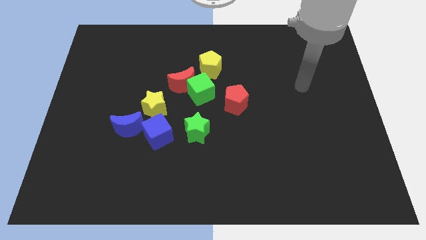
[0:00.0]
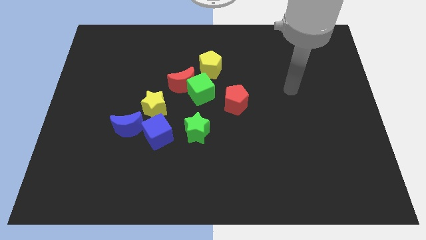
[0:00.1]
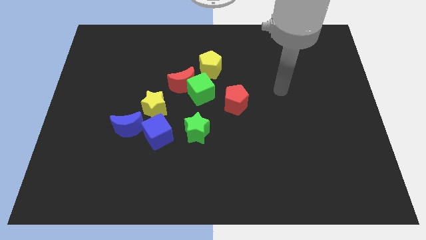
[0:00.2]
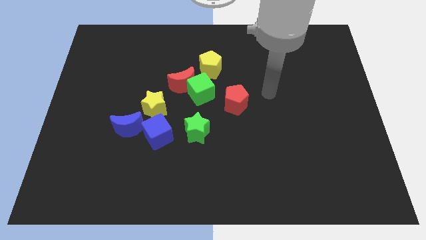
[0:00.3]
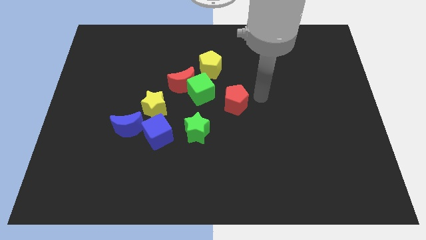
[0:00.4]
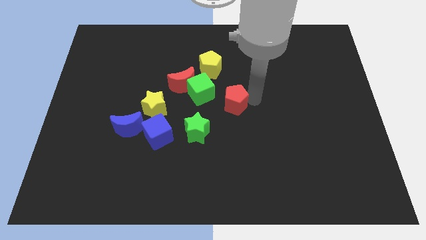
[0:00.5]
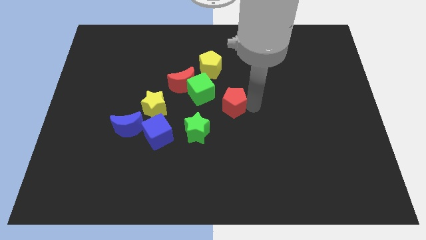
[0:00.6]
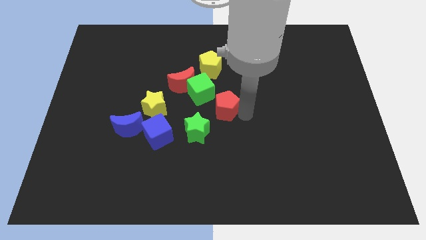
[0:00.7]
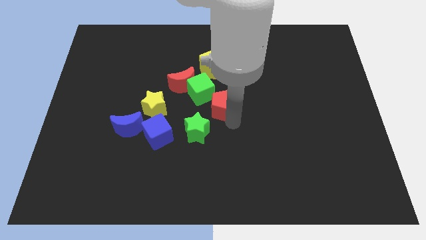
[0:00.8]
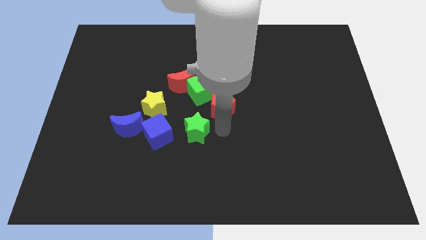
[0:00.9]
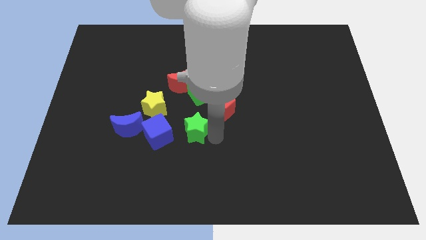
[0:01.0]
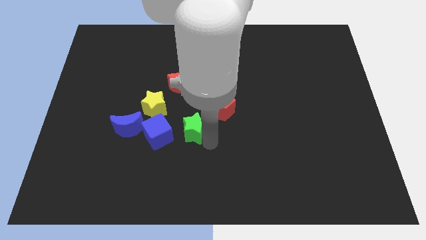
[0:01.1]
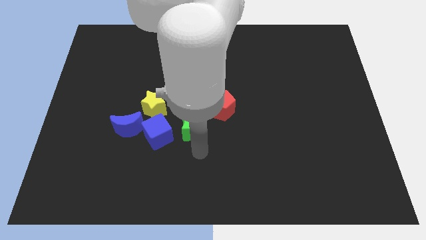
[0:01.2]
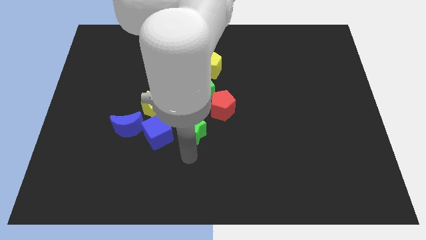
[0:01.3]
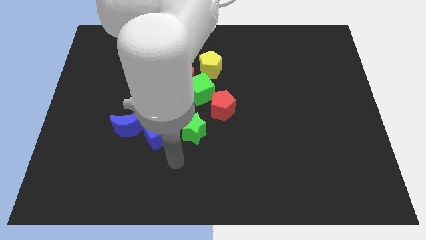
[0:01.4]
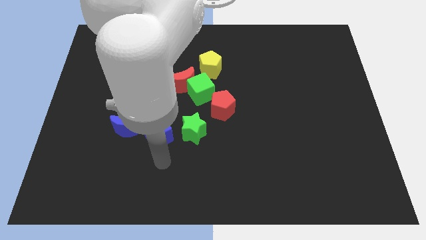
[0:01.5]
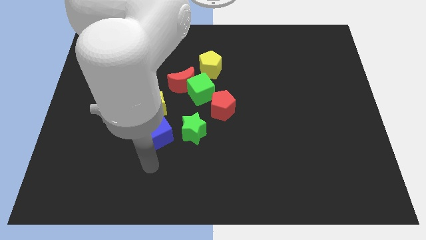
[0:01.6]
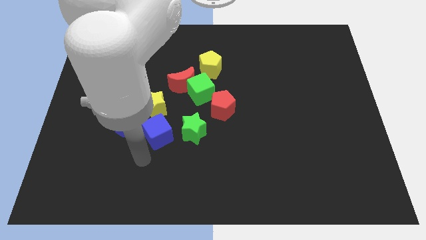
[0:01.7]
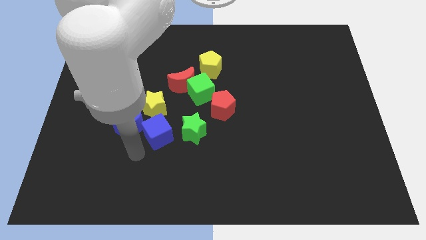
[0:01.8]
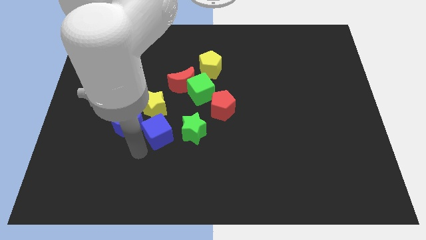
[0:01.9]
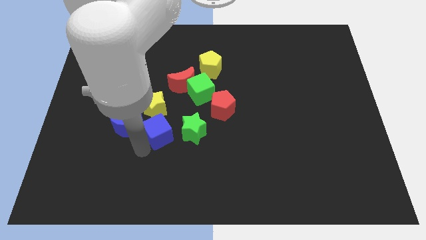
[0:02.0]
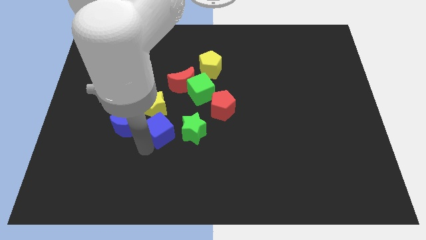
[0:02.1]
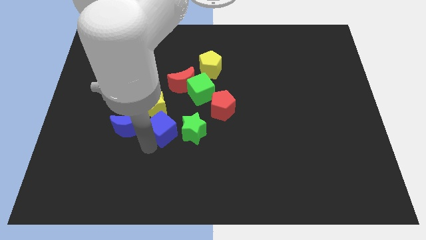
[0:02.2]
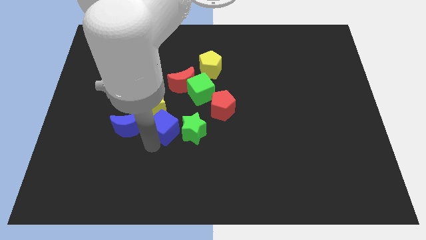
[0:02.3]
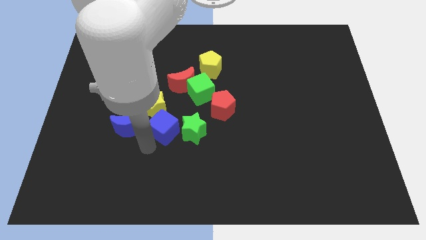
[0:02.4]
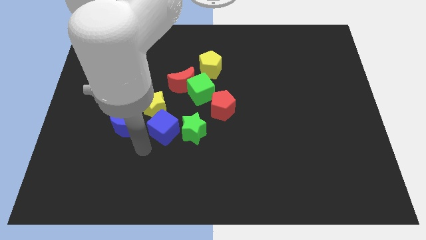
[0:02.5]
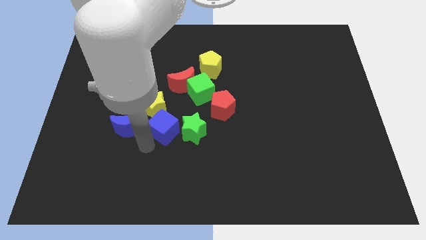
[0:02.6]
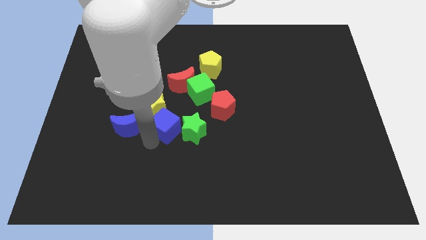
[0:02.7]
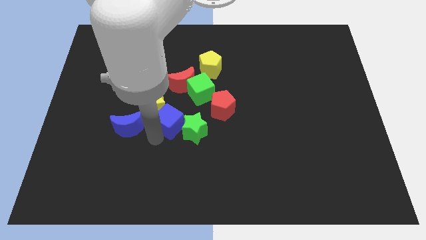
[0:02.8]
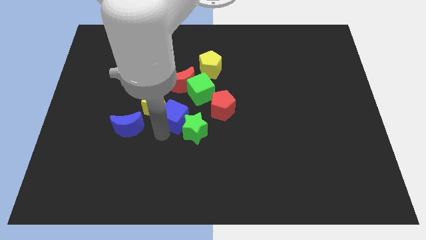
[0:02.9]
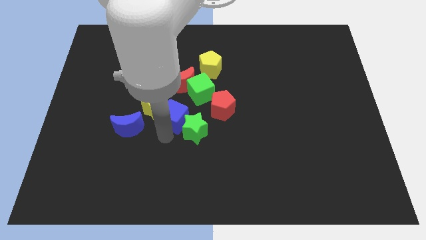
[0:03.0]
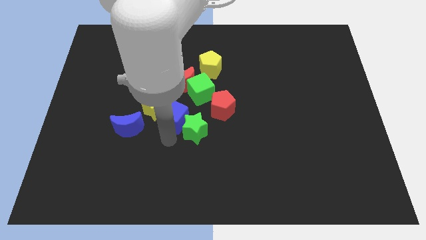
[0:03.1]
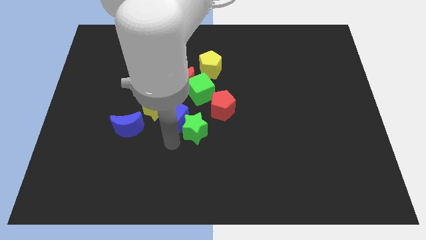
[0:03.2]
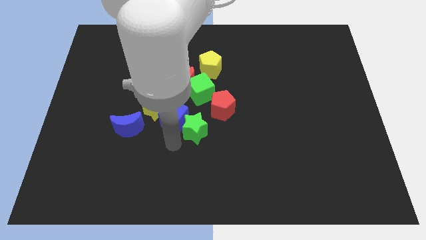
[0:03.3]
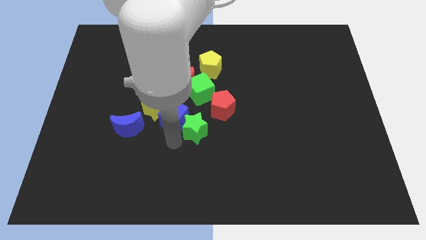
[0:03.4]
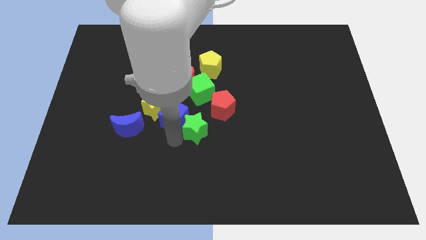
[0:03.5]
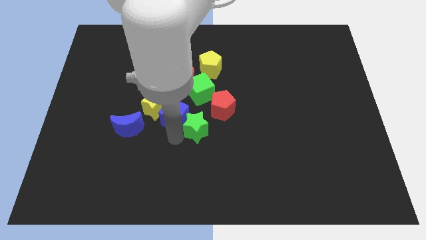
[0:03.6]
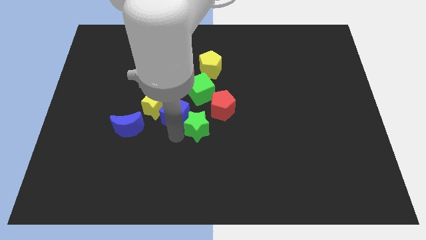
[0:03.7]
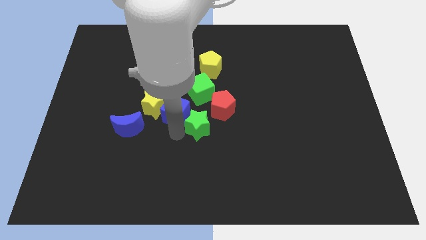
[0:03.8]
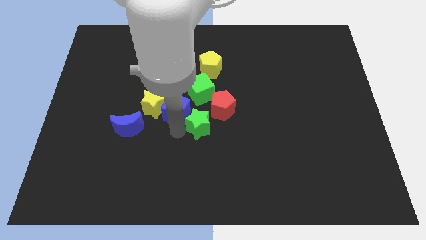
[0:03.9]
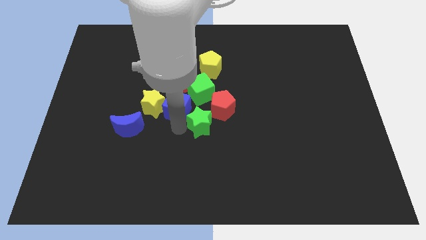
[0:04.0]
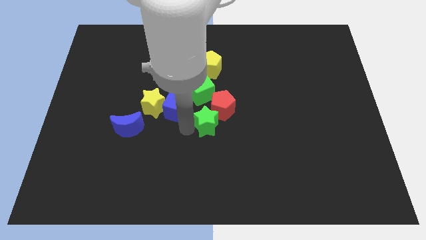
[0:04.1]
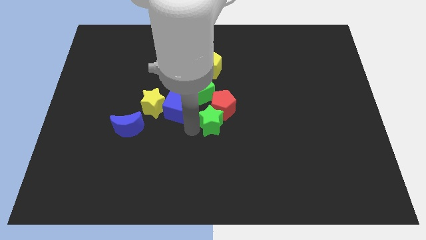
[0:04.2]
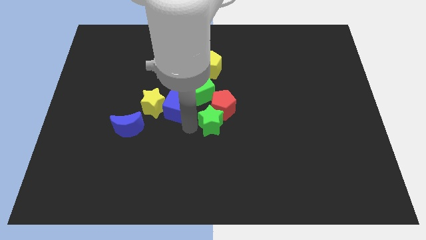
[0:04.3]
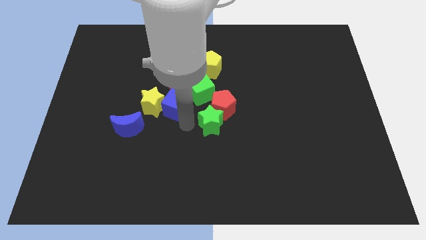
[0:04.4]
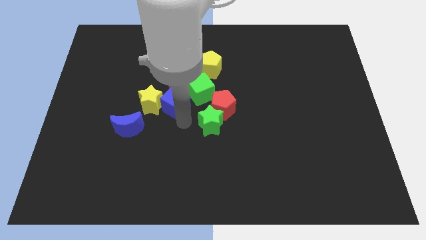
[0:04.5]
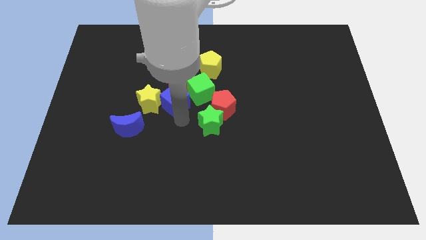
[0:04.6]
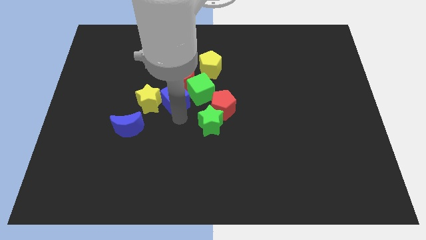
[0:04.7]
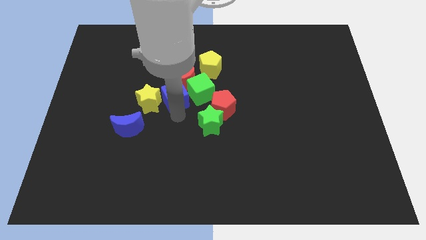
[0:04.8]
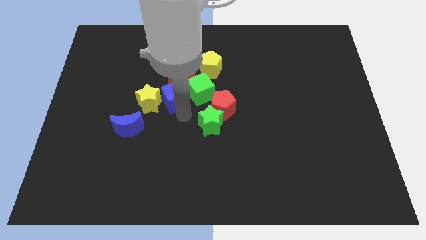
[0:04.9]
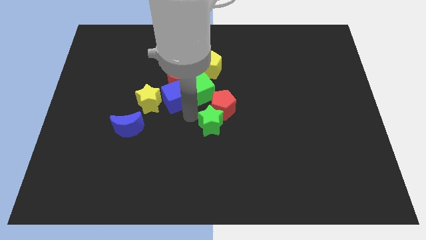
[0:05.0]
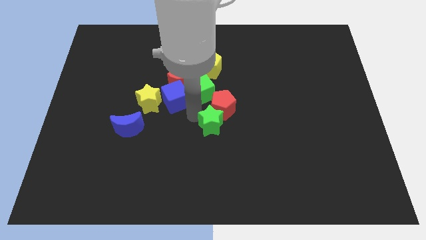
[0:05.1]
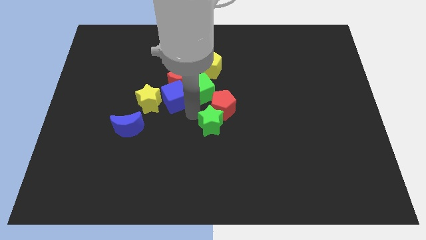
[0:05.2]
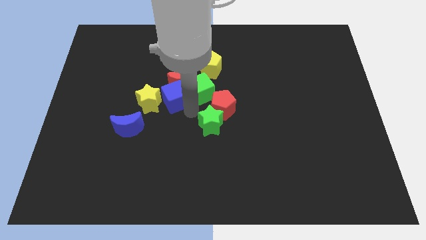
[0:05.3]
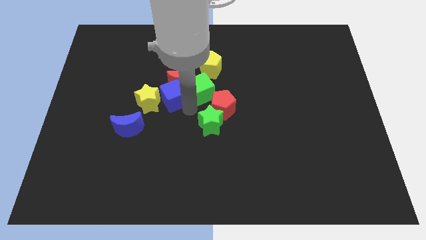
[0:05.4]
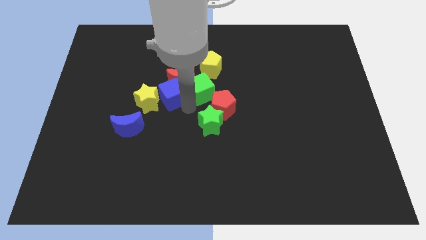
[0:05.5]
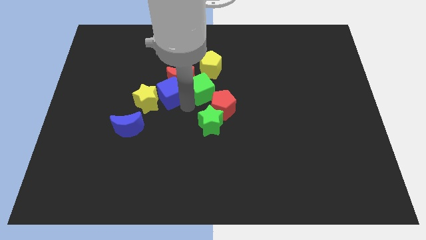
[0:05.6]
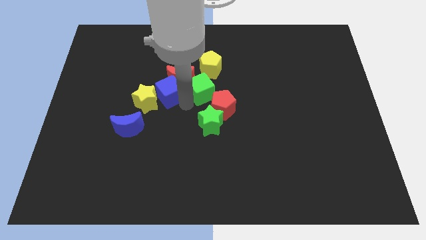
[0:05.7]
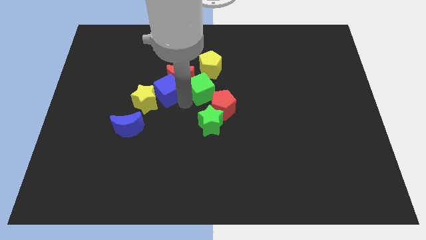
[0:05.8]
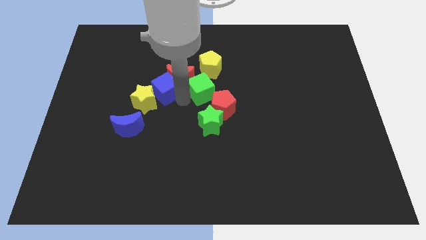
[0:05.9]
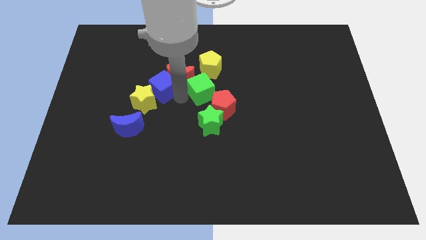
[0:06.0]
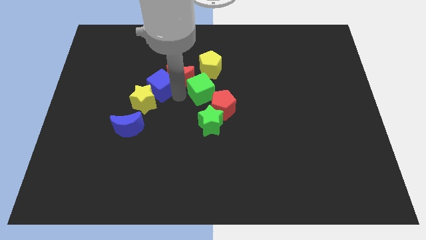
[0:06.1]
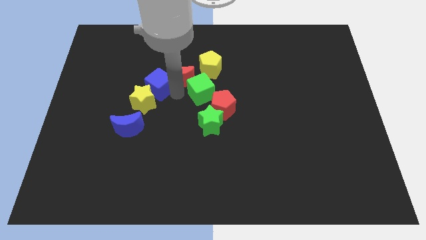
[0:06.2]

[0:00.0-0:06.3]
push the blue cube a little bit diagonally upwards and left

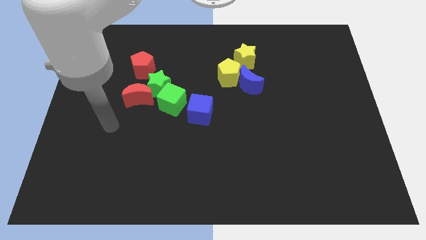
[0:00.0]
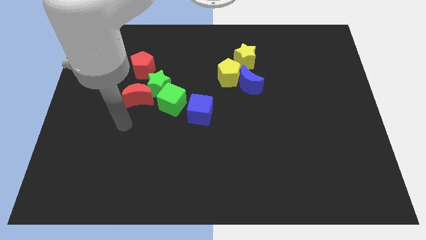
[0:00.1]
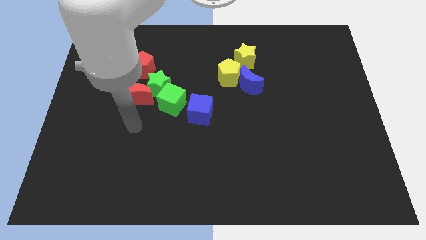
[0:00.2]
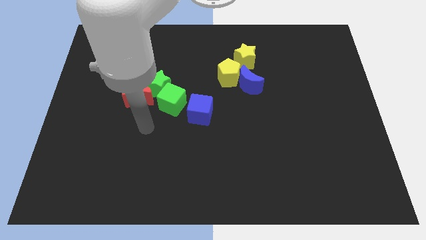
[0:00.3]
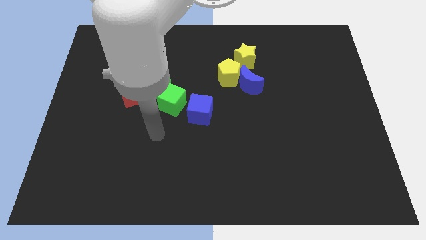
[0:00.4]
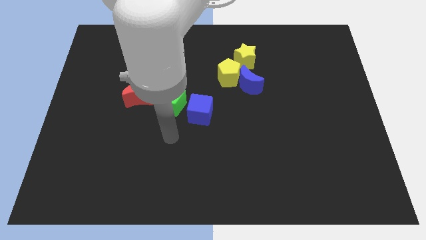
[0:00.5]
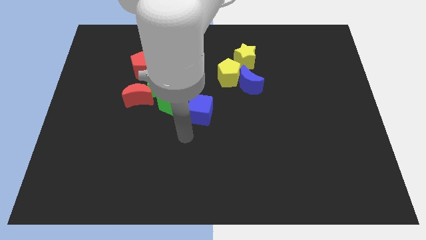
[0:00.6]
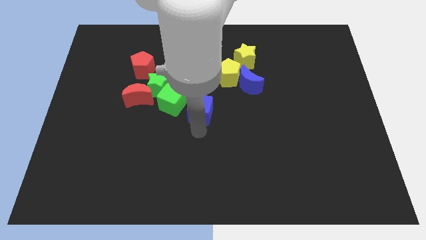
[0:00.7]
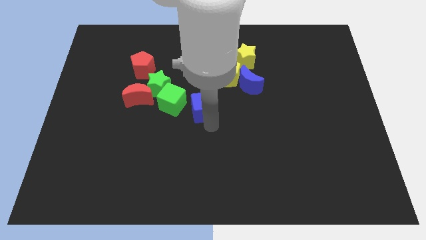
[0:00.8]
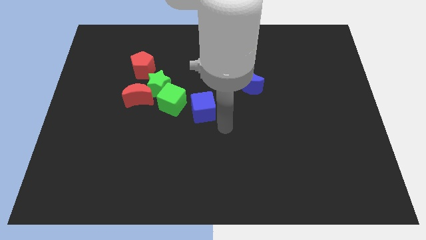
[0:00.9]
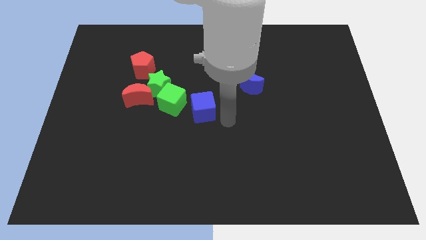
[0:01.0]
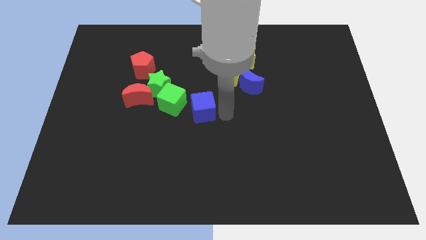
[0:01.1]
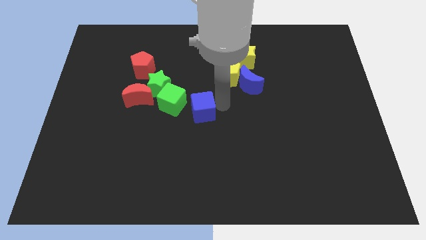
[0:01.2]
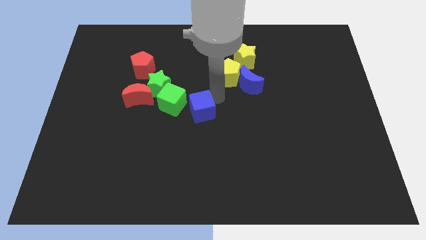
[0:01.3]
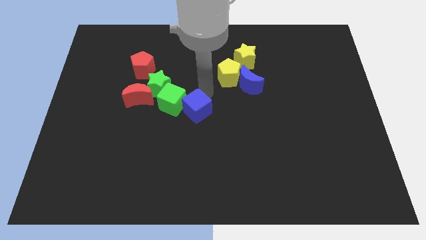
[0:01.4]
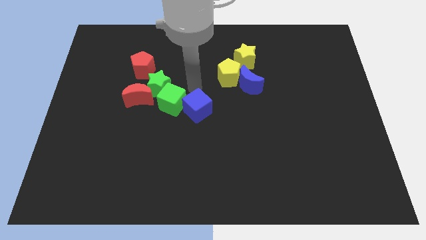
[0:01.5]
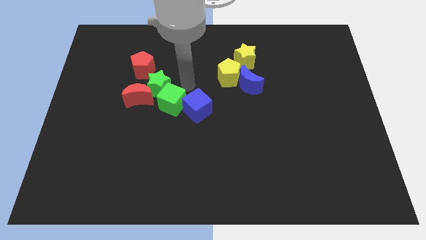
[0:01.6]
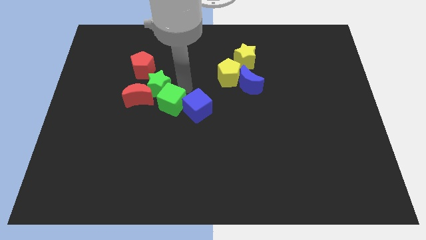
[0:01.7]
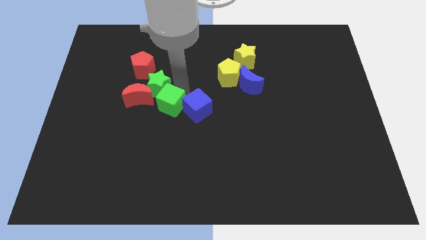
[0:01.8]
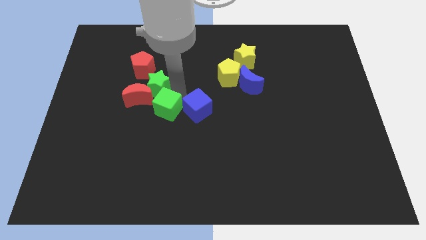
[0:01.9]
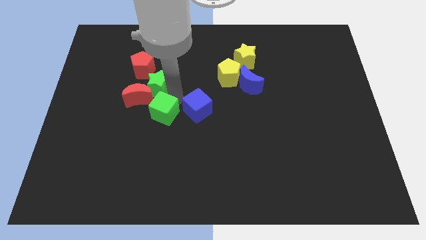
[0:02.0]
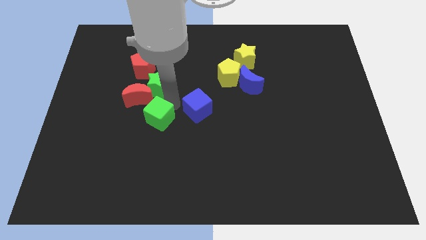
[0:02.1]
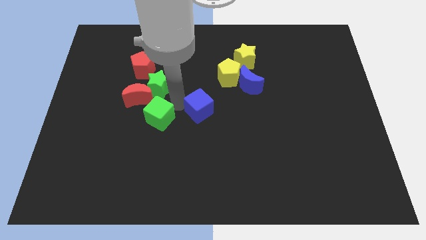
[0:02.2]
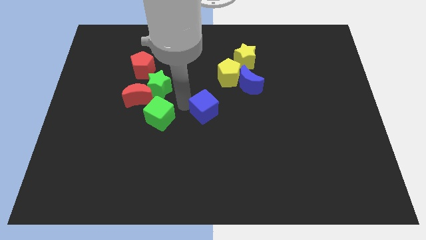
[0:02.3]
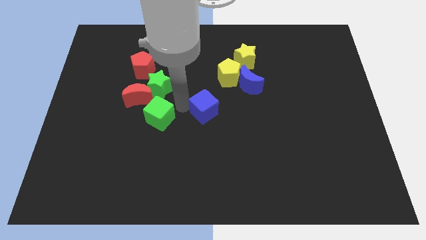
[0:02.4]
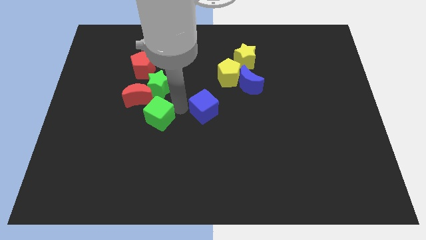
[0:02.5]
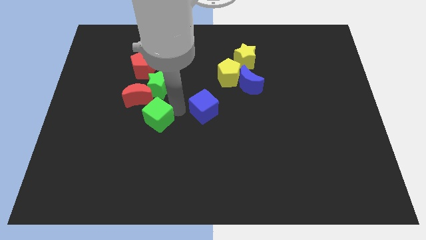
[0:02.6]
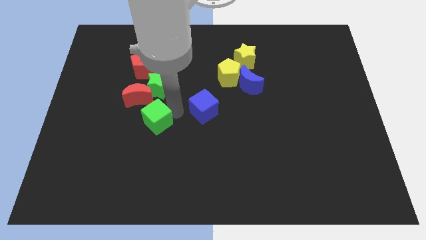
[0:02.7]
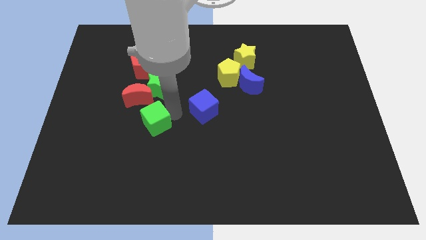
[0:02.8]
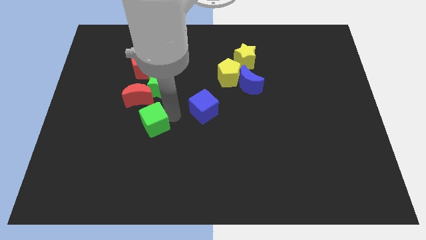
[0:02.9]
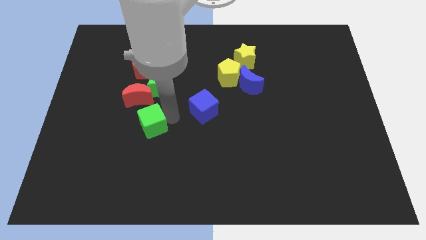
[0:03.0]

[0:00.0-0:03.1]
push the green cube down and to the left diagonally a little
